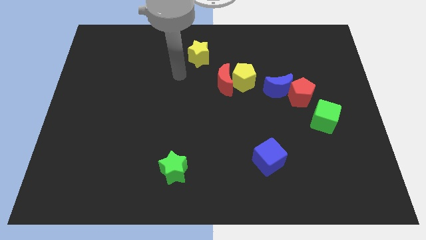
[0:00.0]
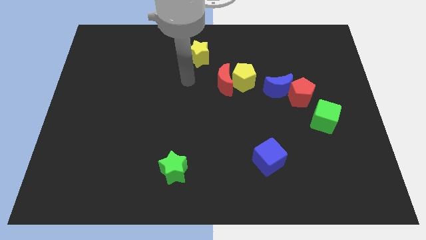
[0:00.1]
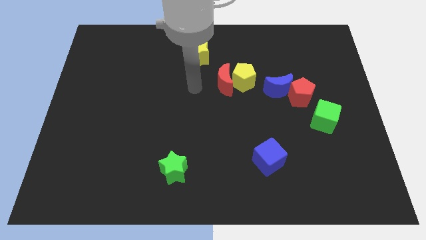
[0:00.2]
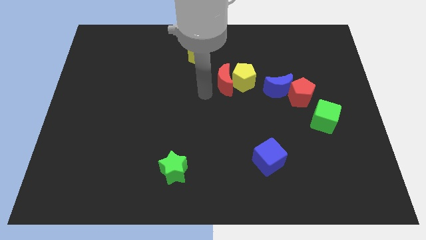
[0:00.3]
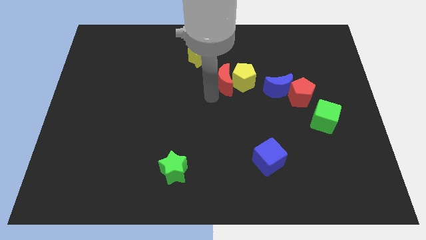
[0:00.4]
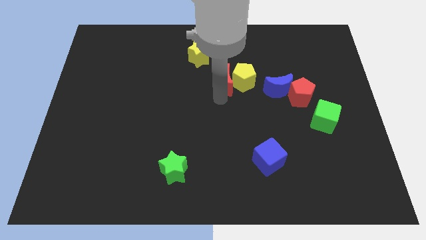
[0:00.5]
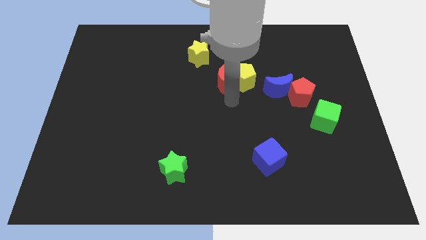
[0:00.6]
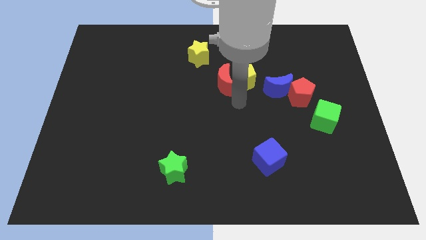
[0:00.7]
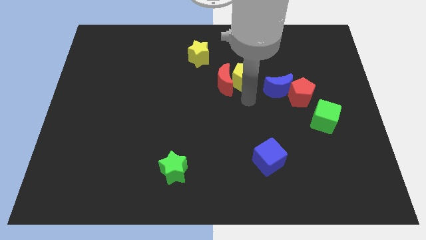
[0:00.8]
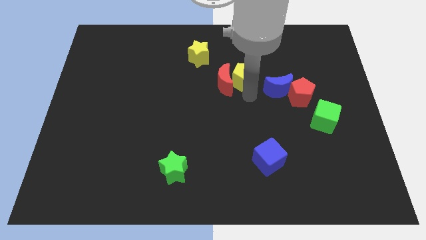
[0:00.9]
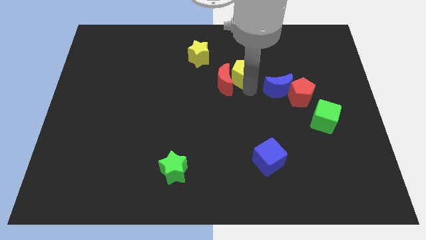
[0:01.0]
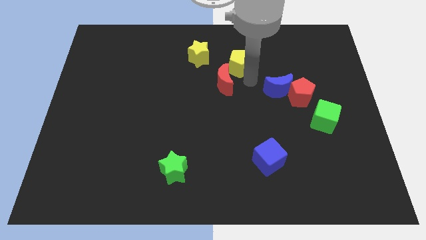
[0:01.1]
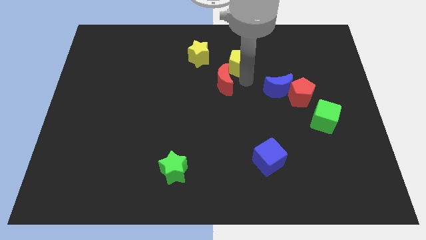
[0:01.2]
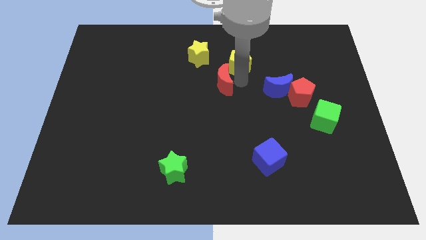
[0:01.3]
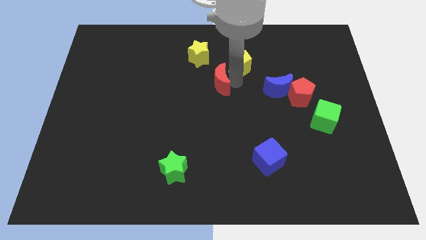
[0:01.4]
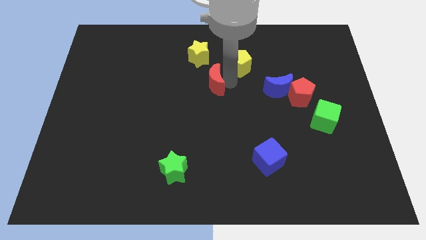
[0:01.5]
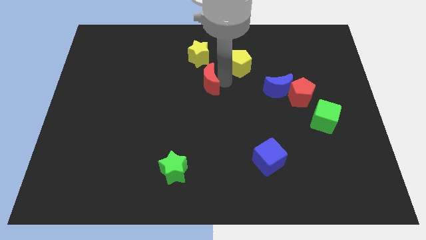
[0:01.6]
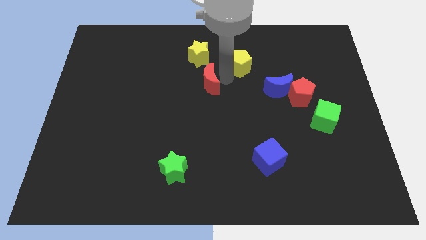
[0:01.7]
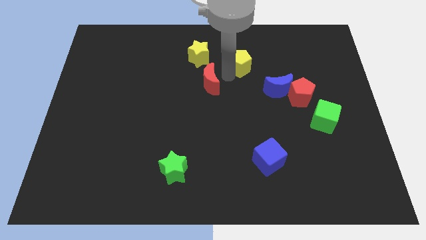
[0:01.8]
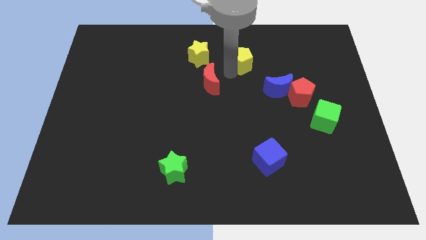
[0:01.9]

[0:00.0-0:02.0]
move the red moon away from the yellow pentagon

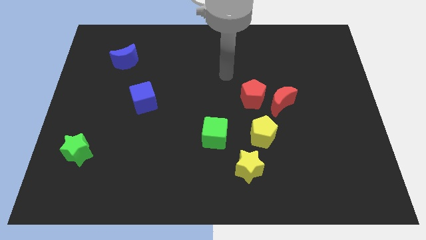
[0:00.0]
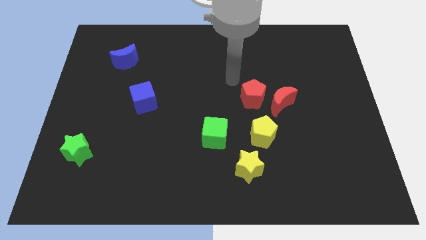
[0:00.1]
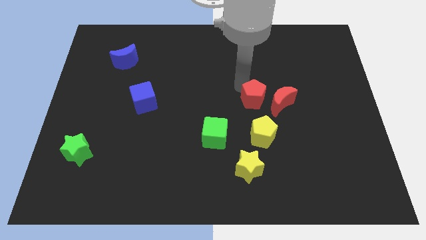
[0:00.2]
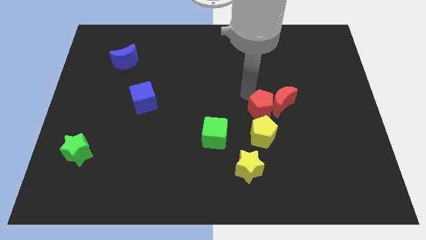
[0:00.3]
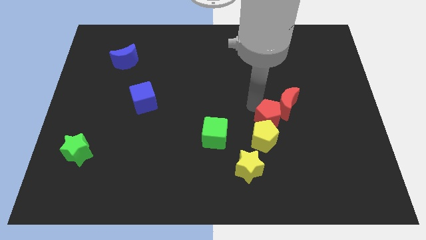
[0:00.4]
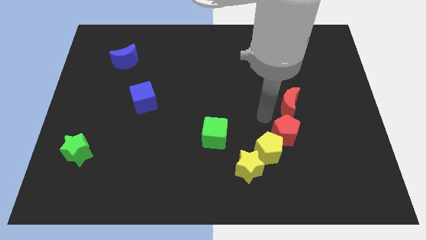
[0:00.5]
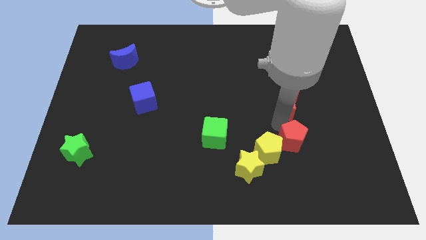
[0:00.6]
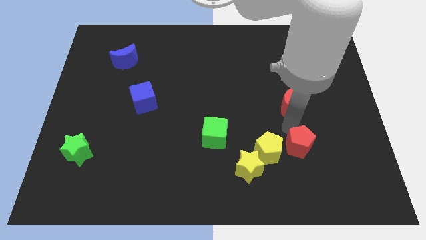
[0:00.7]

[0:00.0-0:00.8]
move the red moon away from the red pentagon

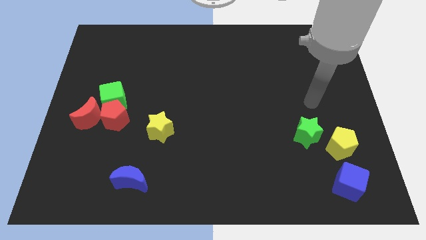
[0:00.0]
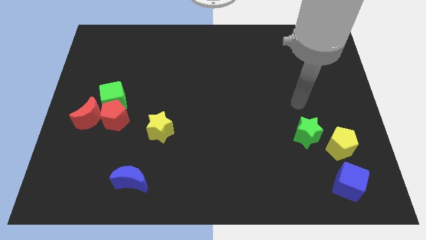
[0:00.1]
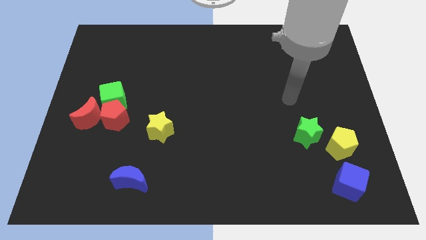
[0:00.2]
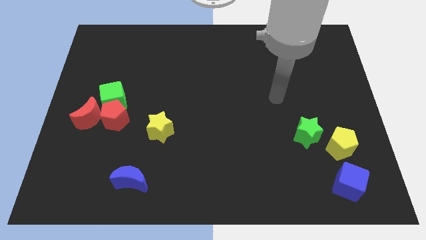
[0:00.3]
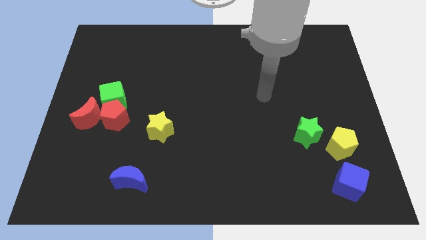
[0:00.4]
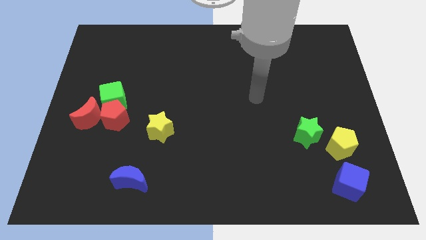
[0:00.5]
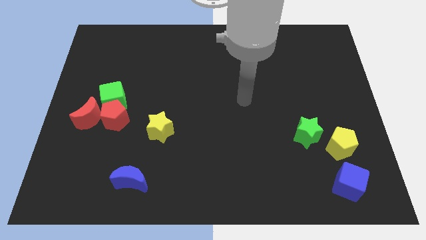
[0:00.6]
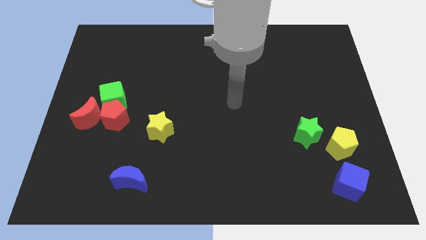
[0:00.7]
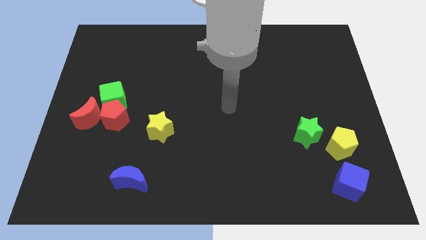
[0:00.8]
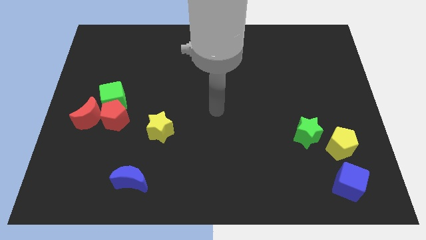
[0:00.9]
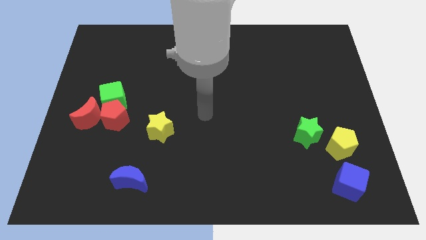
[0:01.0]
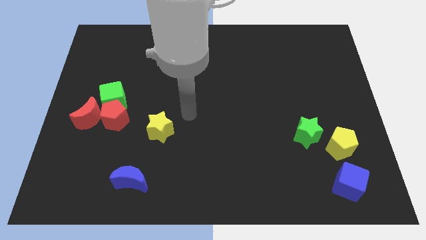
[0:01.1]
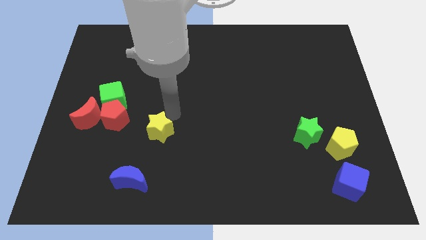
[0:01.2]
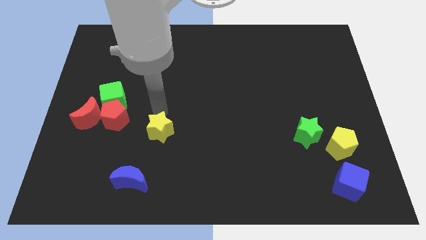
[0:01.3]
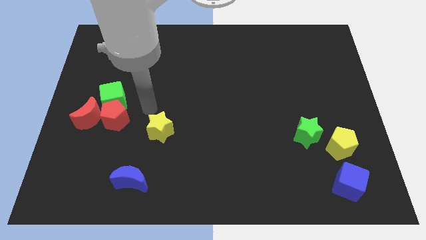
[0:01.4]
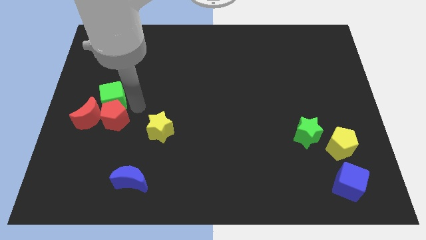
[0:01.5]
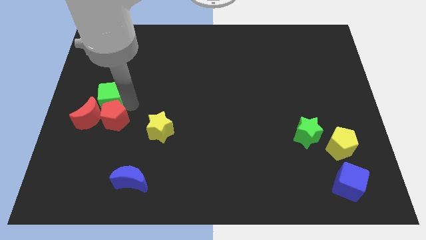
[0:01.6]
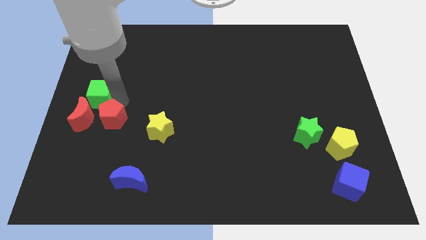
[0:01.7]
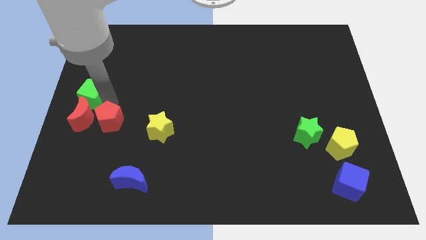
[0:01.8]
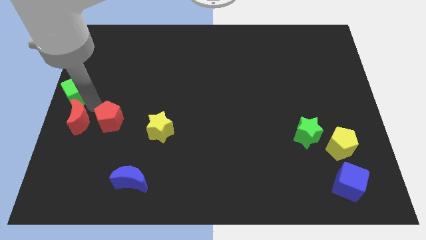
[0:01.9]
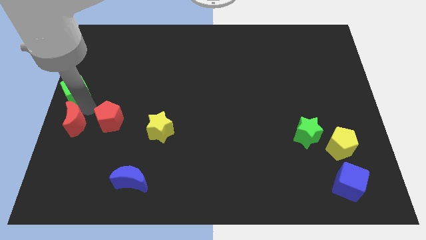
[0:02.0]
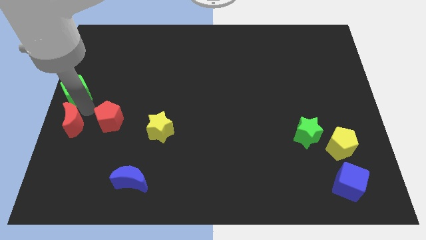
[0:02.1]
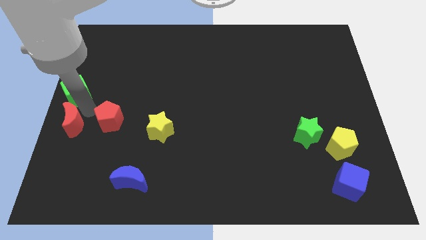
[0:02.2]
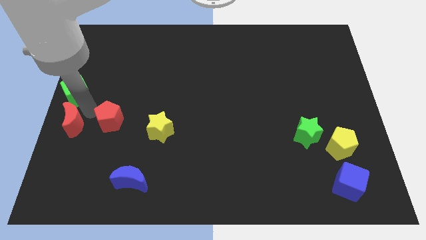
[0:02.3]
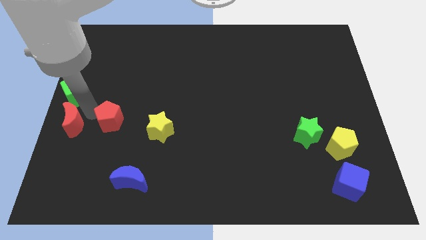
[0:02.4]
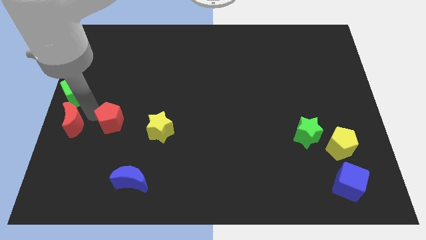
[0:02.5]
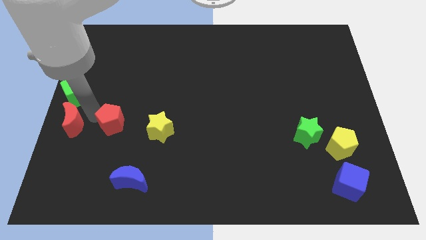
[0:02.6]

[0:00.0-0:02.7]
separate the red pentagon from the green cube and red moon

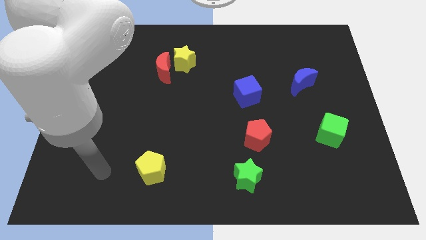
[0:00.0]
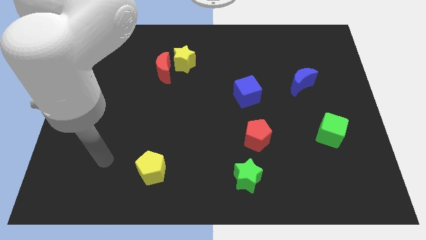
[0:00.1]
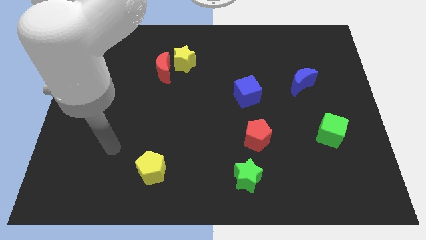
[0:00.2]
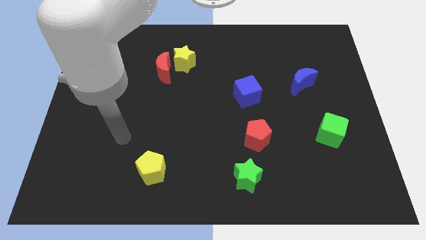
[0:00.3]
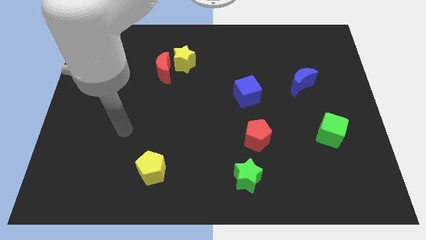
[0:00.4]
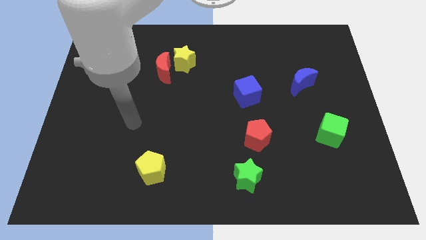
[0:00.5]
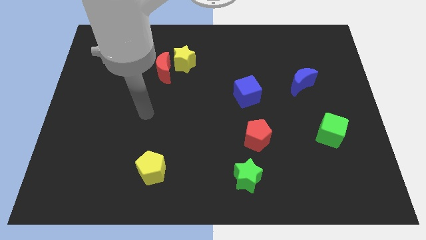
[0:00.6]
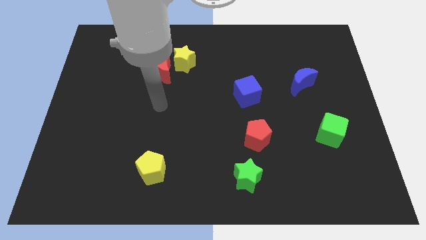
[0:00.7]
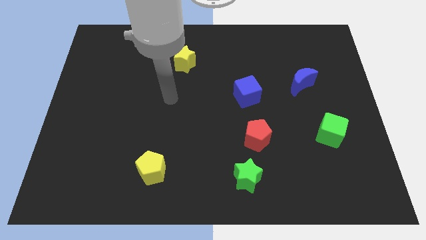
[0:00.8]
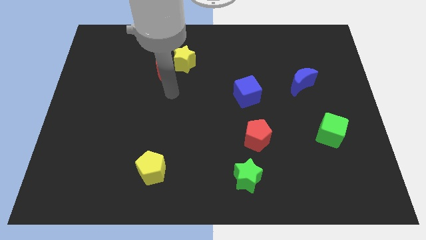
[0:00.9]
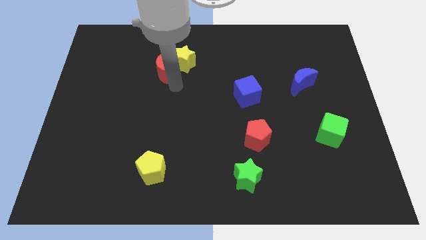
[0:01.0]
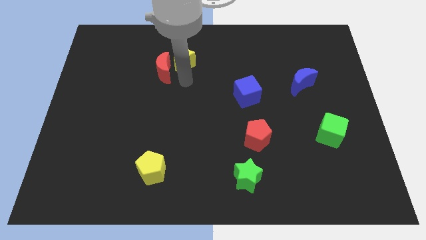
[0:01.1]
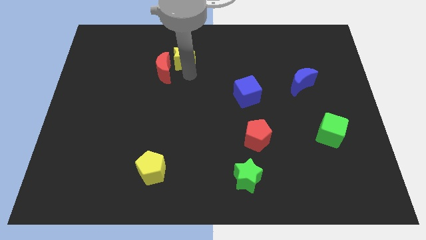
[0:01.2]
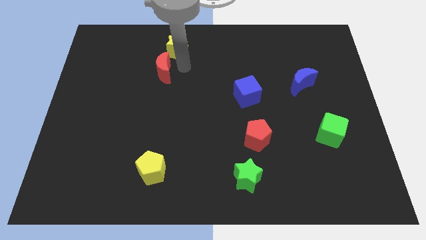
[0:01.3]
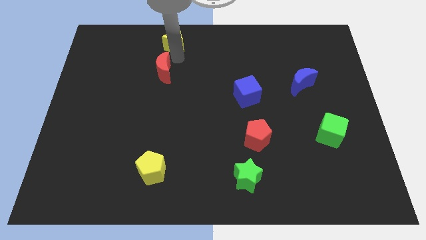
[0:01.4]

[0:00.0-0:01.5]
move the red moon away from the yellow star

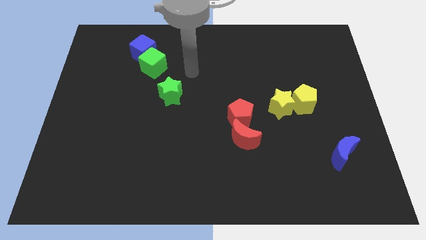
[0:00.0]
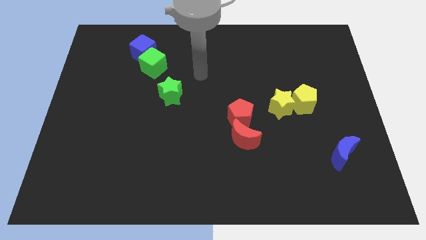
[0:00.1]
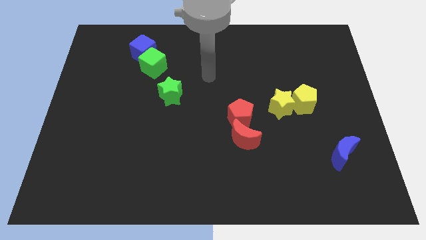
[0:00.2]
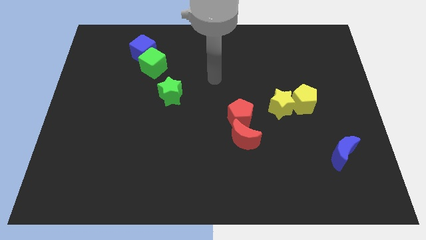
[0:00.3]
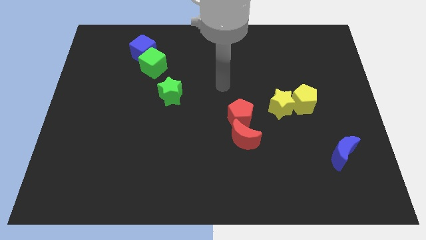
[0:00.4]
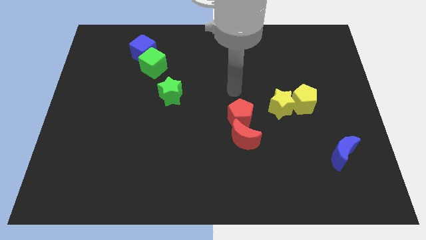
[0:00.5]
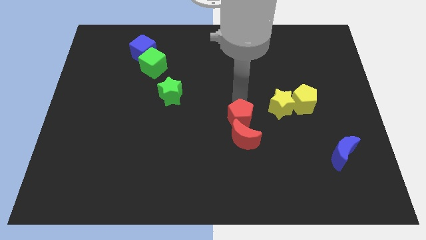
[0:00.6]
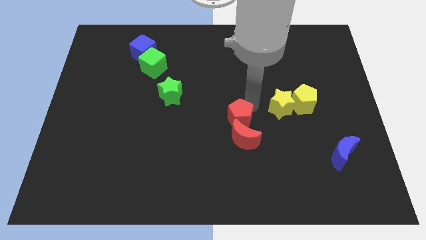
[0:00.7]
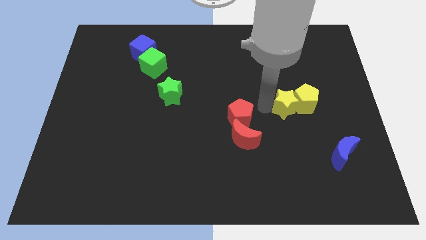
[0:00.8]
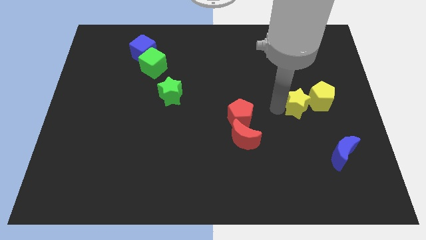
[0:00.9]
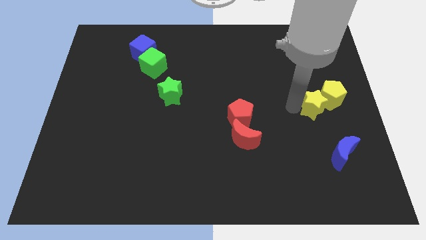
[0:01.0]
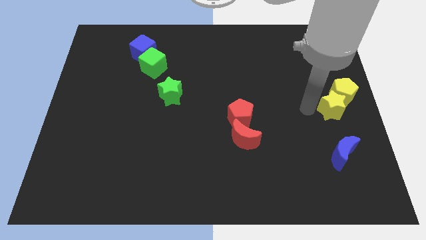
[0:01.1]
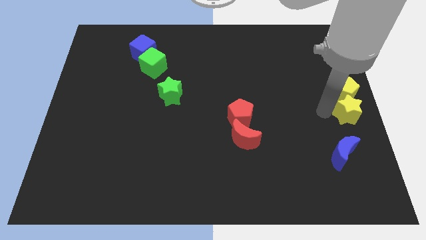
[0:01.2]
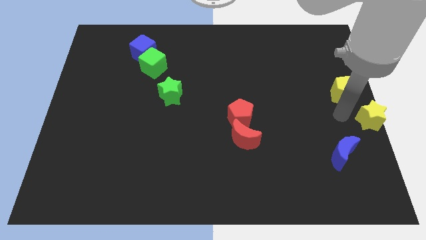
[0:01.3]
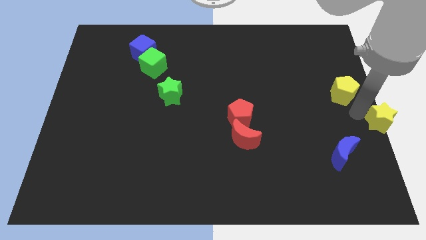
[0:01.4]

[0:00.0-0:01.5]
pull the yellow pentagon apart from the yellow star

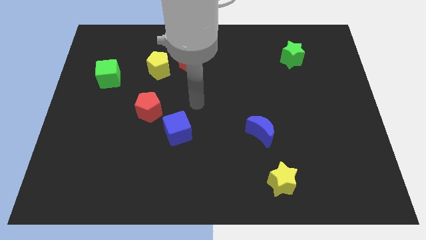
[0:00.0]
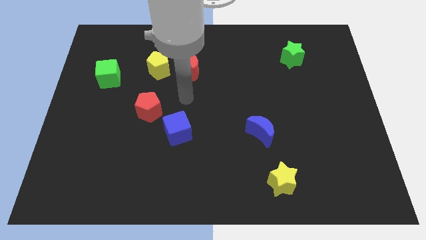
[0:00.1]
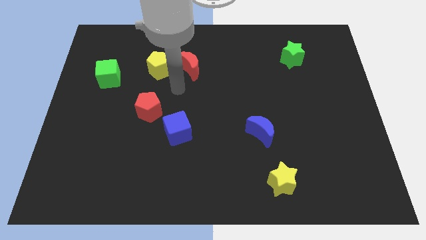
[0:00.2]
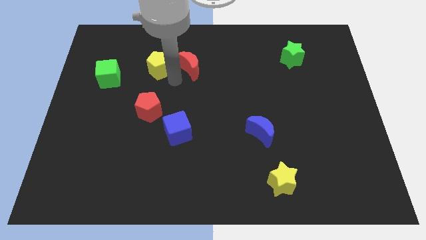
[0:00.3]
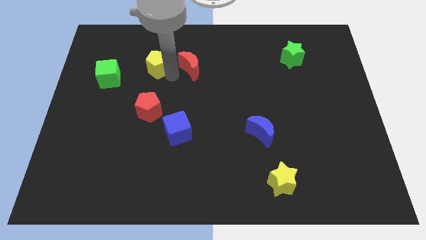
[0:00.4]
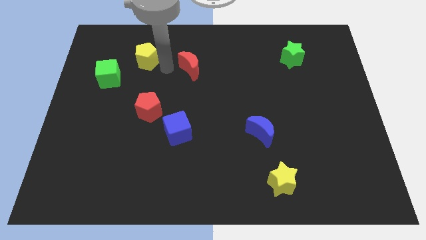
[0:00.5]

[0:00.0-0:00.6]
separate the red moon from the yellow pentagon
